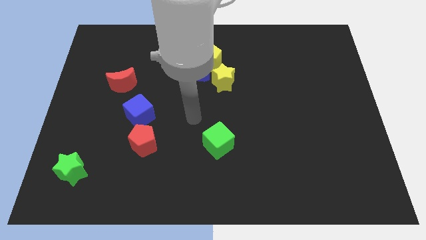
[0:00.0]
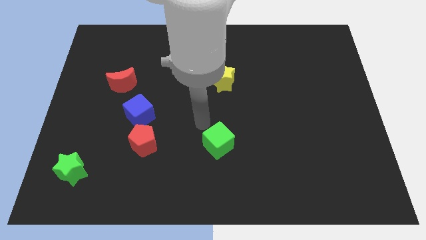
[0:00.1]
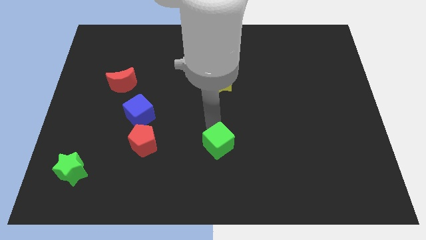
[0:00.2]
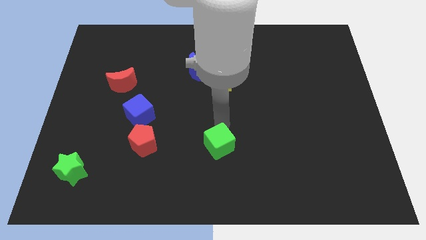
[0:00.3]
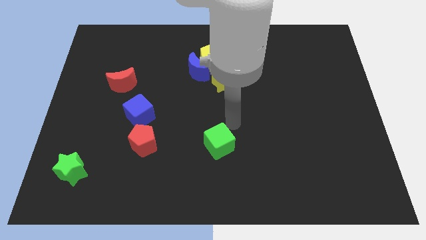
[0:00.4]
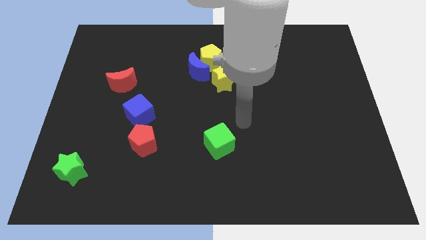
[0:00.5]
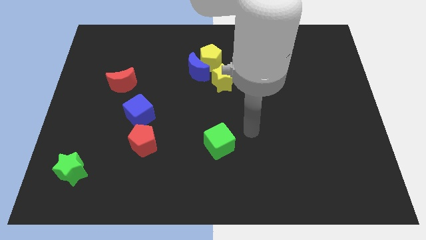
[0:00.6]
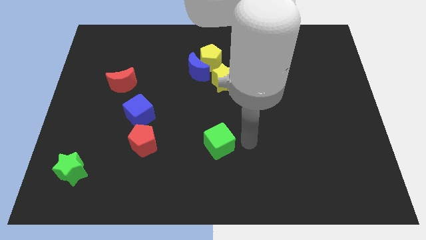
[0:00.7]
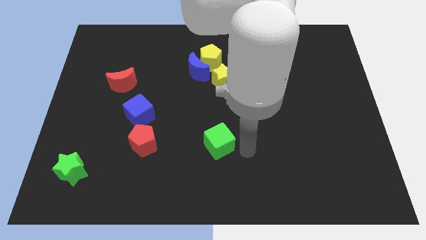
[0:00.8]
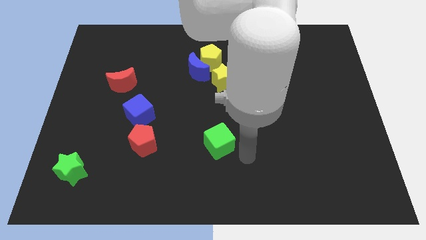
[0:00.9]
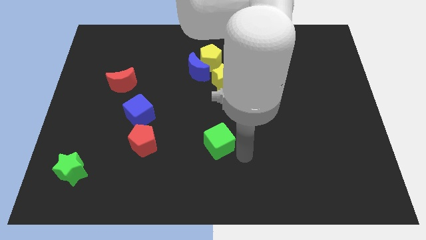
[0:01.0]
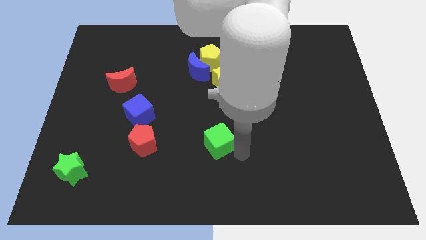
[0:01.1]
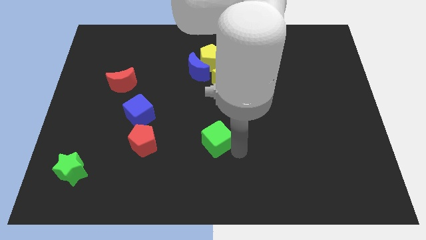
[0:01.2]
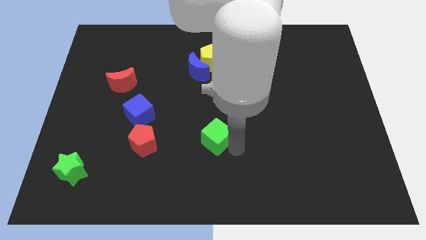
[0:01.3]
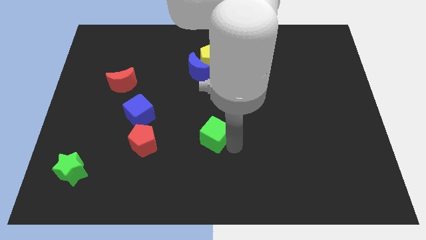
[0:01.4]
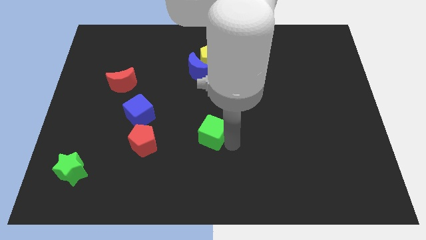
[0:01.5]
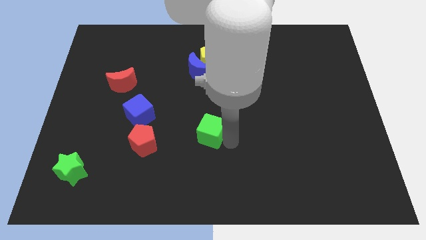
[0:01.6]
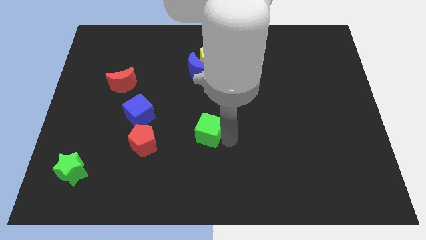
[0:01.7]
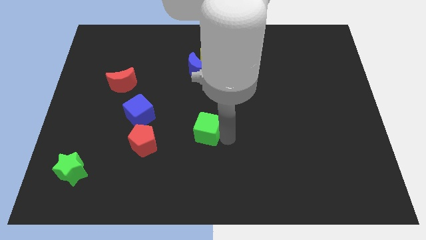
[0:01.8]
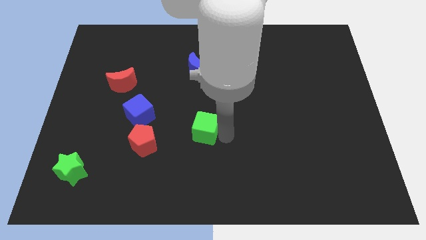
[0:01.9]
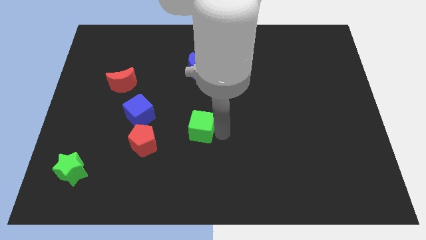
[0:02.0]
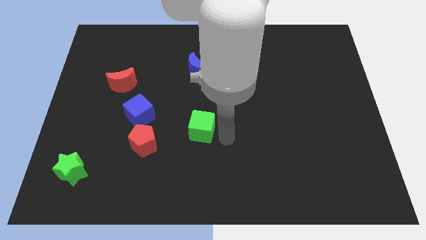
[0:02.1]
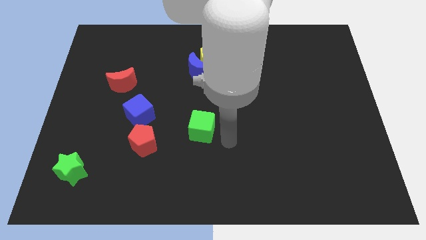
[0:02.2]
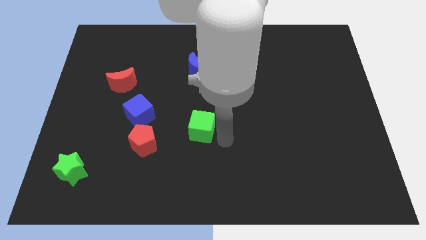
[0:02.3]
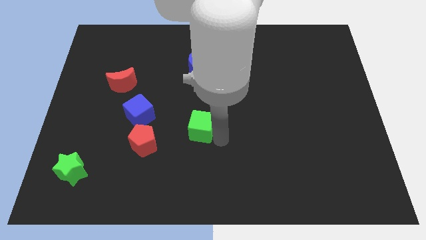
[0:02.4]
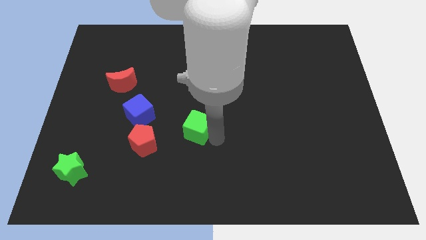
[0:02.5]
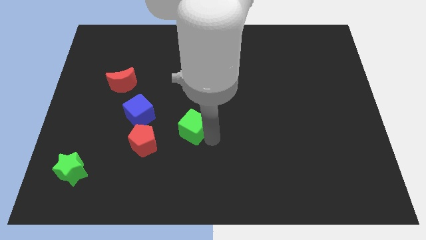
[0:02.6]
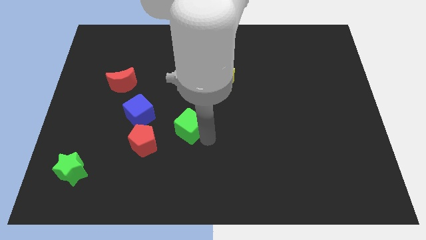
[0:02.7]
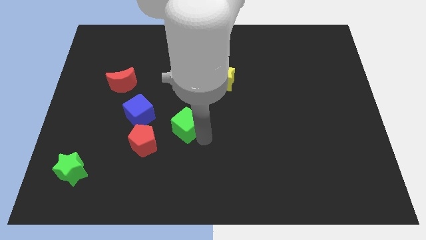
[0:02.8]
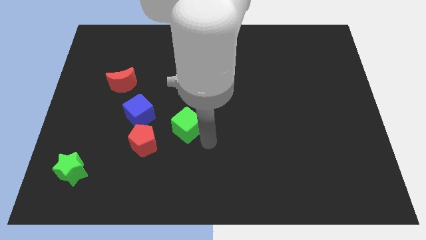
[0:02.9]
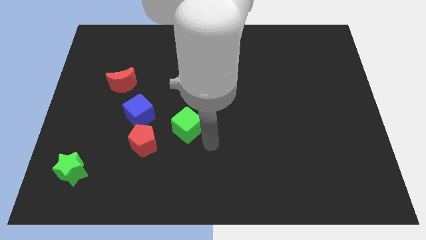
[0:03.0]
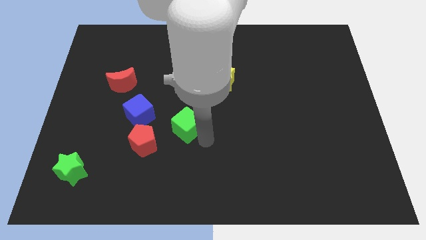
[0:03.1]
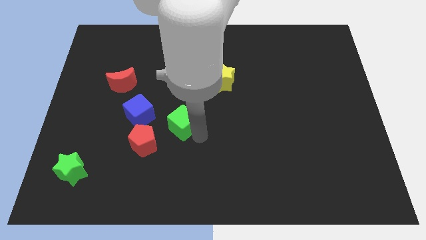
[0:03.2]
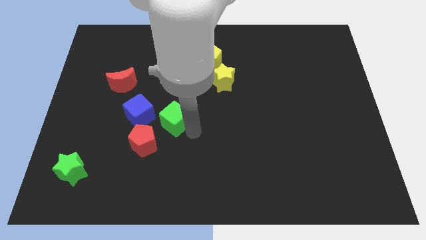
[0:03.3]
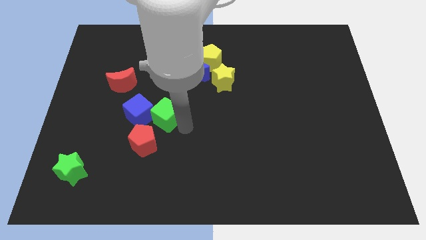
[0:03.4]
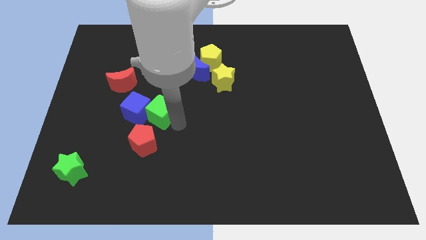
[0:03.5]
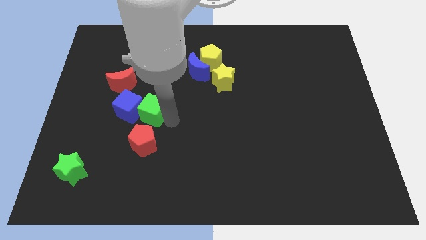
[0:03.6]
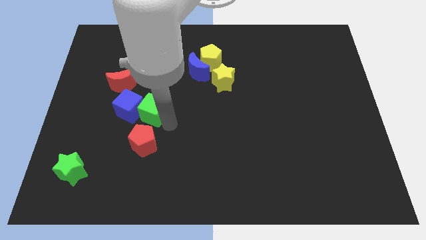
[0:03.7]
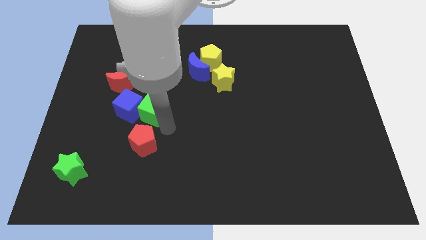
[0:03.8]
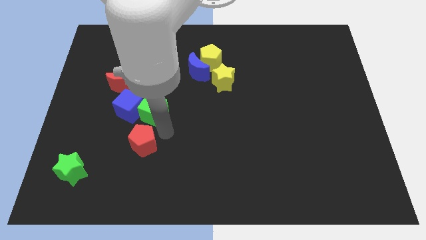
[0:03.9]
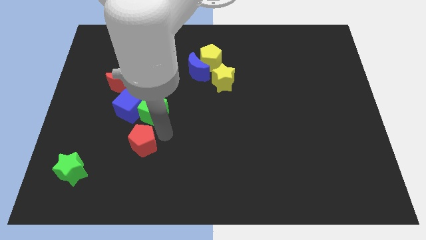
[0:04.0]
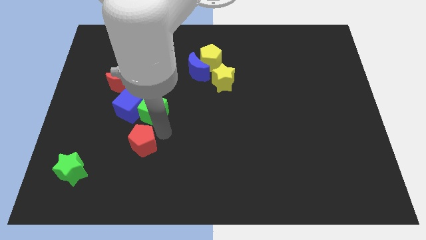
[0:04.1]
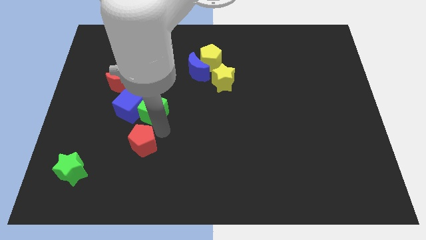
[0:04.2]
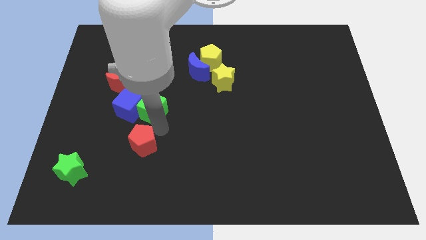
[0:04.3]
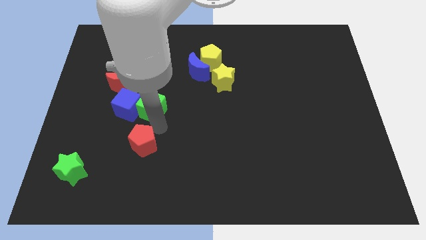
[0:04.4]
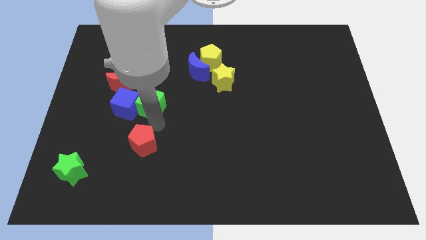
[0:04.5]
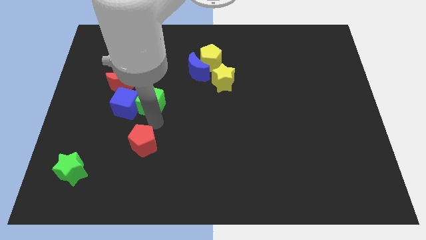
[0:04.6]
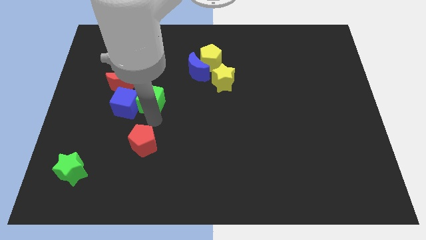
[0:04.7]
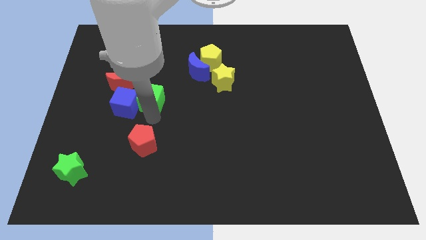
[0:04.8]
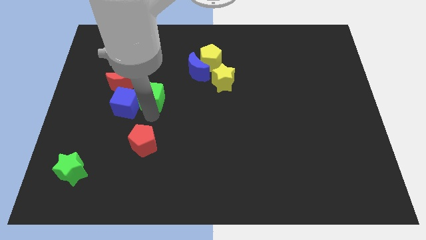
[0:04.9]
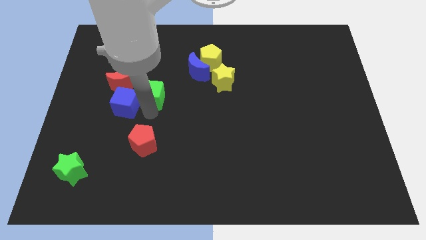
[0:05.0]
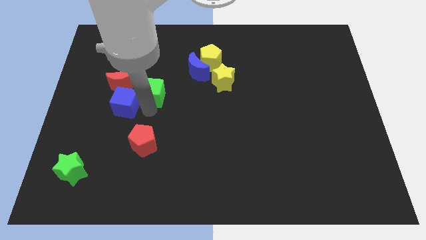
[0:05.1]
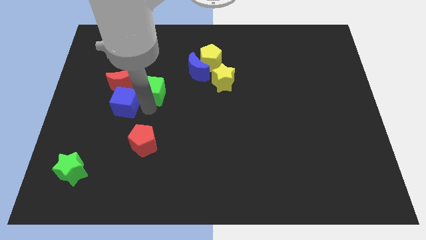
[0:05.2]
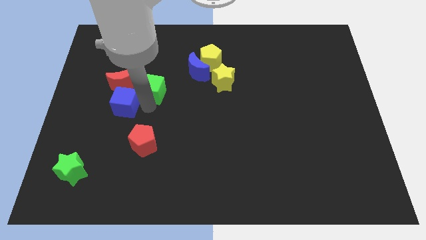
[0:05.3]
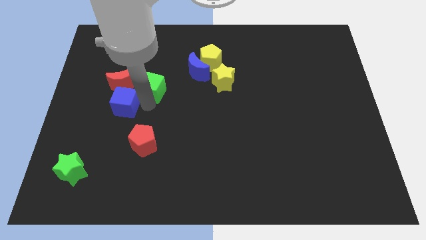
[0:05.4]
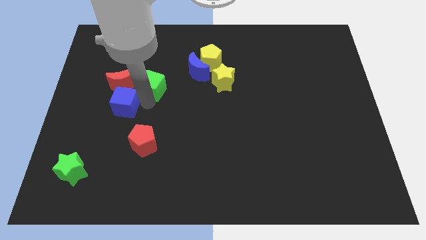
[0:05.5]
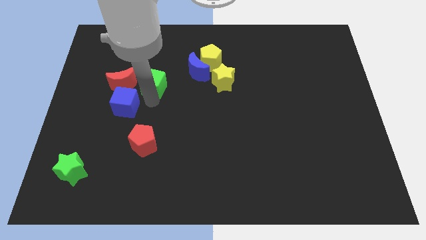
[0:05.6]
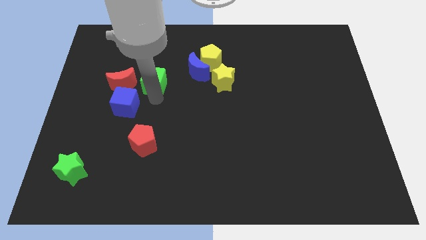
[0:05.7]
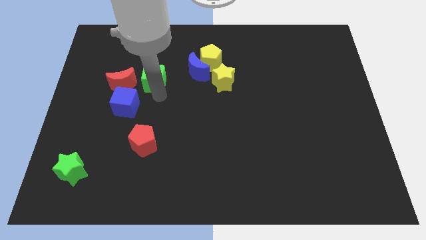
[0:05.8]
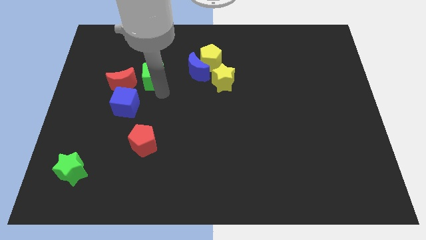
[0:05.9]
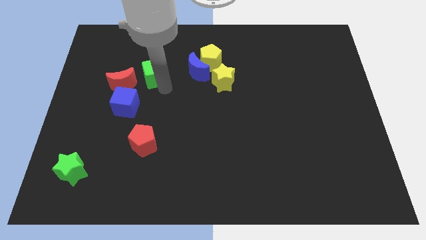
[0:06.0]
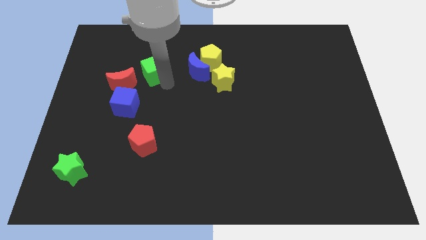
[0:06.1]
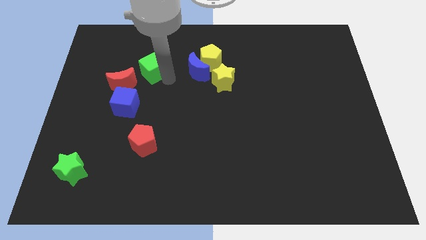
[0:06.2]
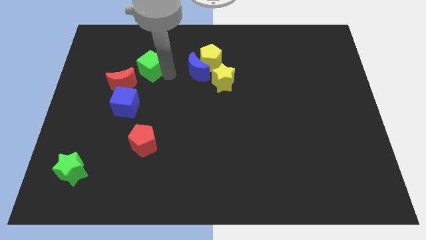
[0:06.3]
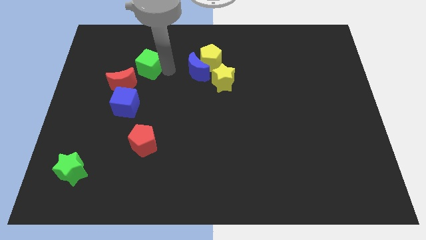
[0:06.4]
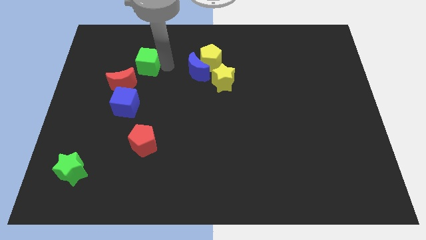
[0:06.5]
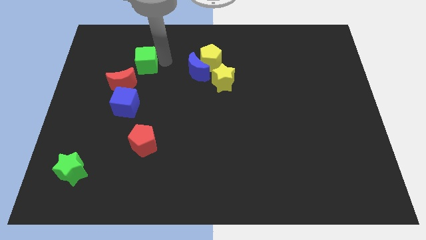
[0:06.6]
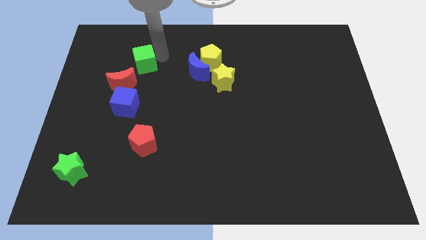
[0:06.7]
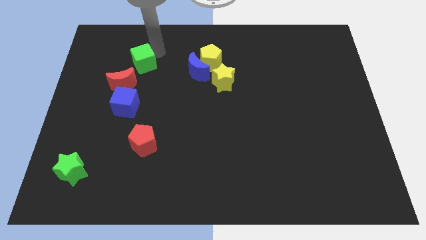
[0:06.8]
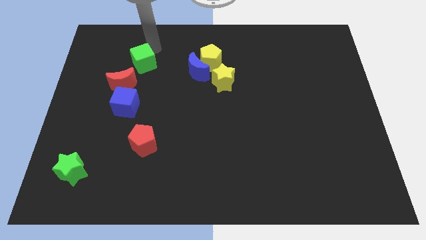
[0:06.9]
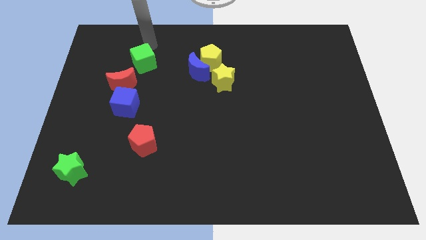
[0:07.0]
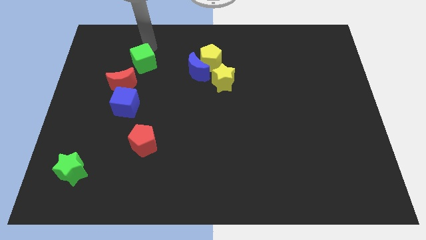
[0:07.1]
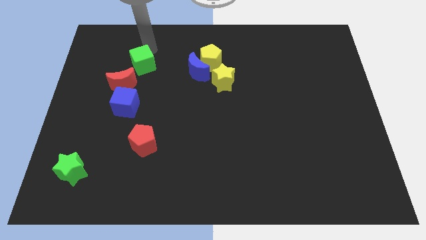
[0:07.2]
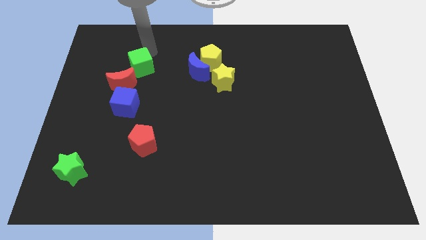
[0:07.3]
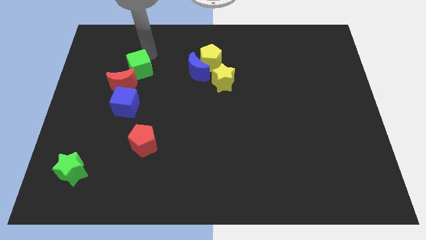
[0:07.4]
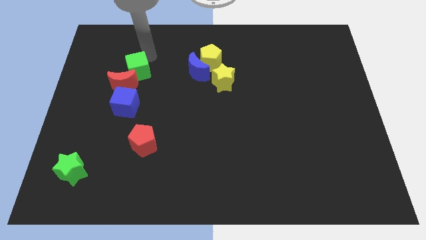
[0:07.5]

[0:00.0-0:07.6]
push the green cube to the red moon

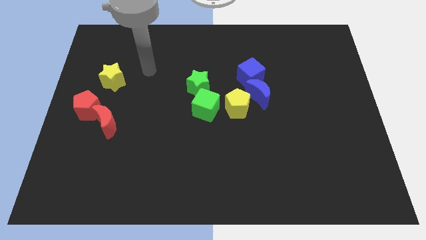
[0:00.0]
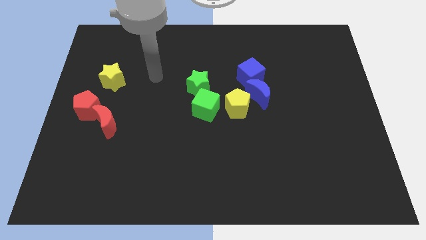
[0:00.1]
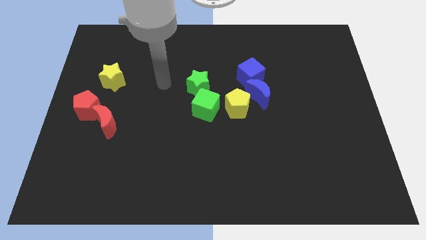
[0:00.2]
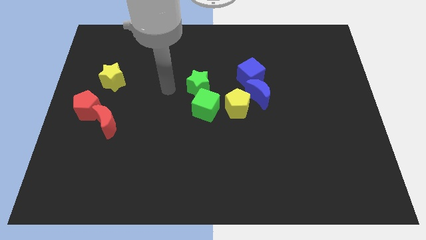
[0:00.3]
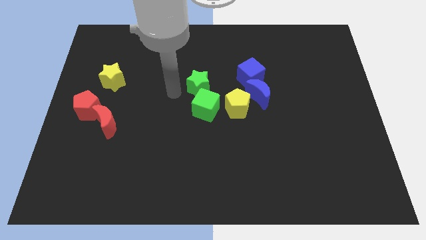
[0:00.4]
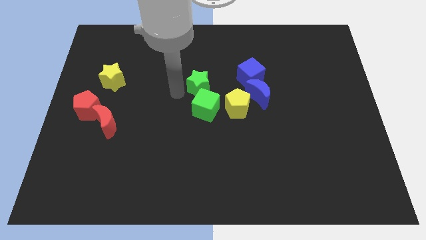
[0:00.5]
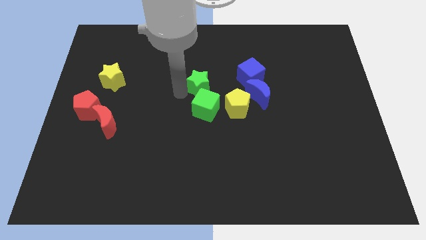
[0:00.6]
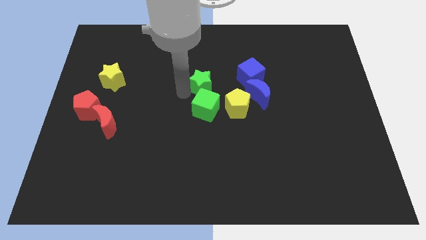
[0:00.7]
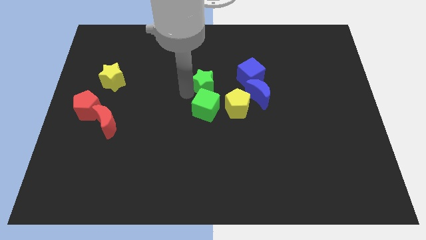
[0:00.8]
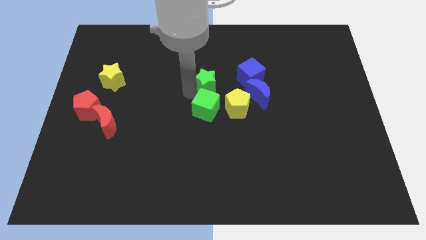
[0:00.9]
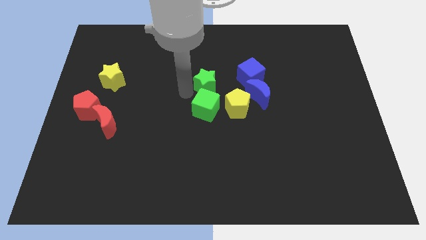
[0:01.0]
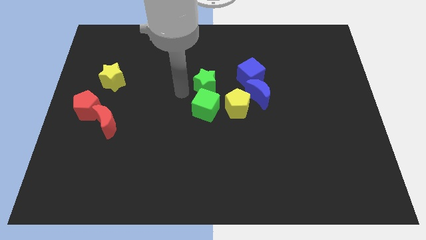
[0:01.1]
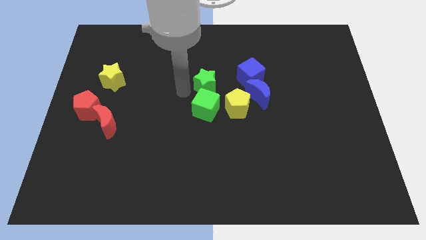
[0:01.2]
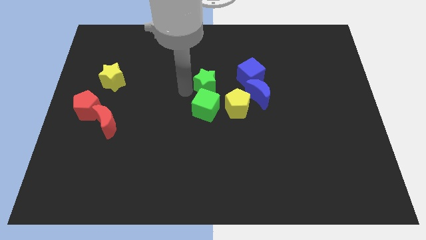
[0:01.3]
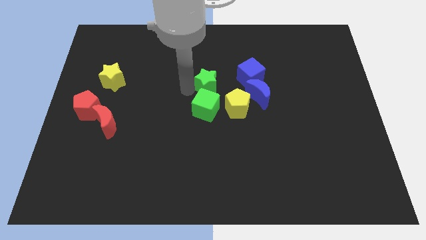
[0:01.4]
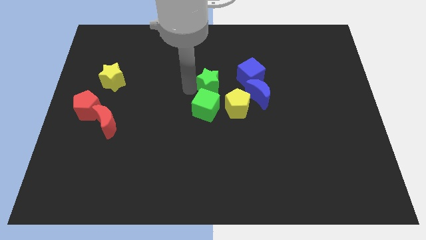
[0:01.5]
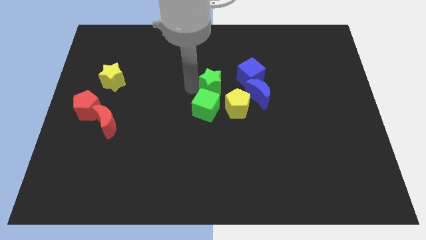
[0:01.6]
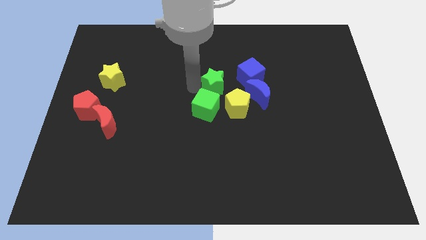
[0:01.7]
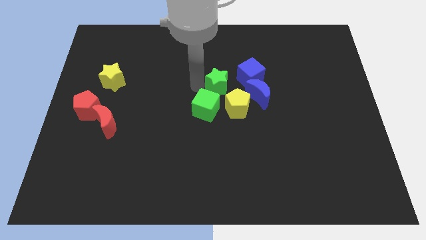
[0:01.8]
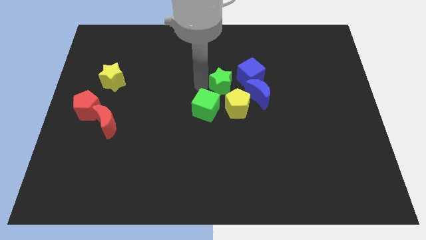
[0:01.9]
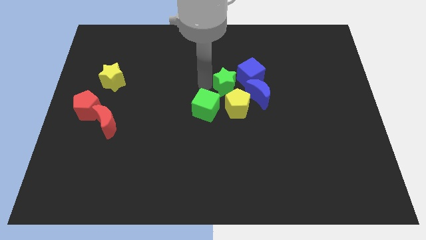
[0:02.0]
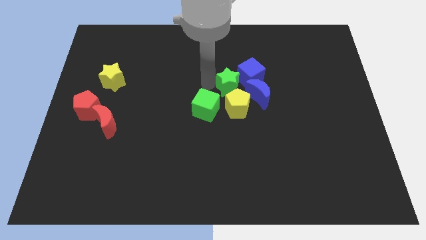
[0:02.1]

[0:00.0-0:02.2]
push the green star next to the blue cube
